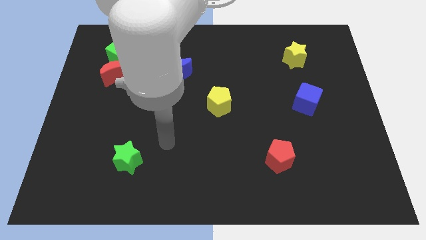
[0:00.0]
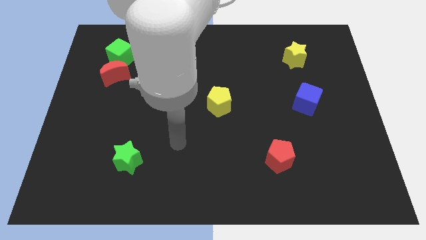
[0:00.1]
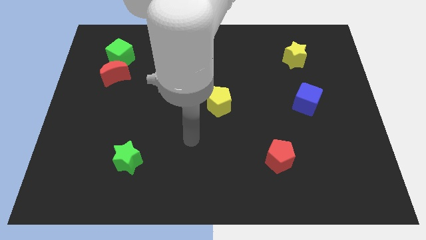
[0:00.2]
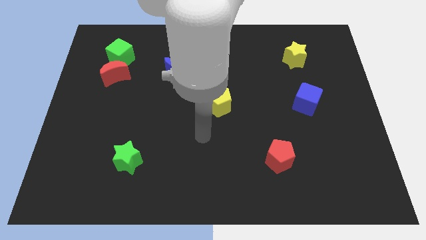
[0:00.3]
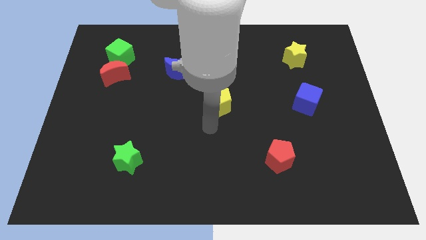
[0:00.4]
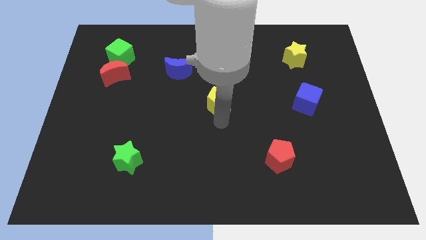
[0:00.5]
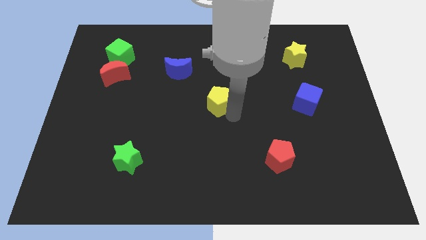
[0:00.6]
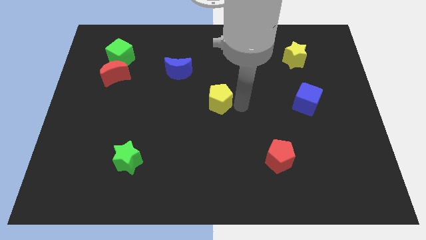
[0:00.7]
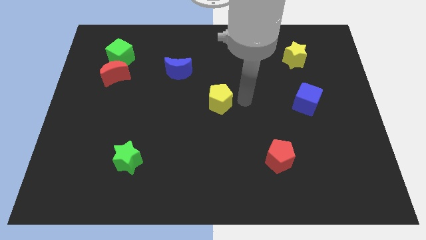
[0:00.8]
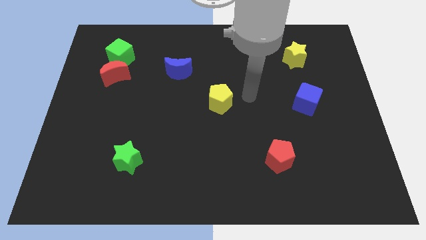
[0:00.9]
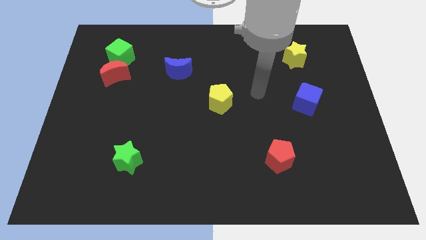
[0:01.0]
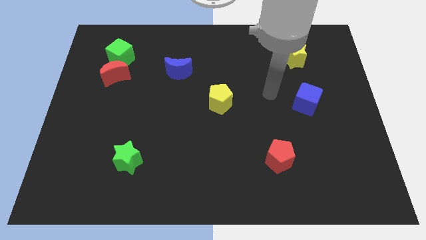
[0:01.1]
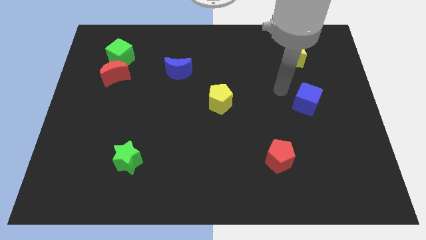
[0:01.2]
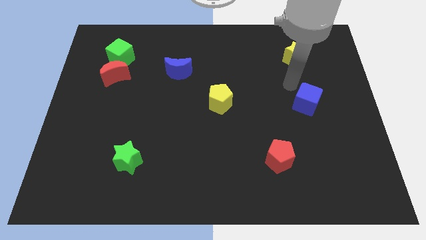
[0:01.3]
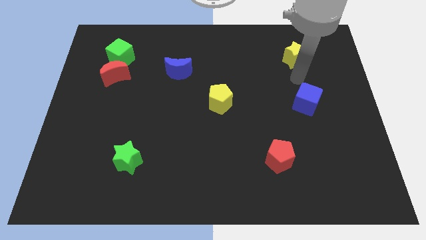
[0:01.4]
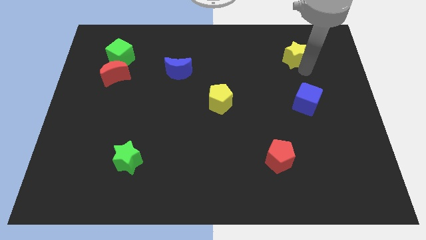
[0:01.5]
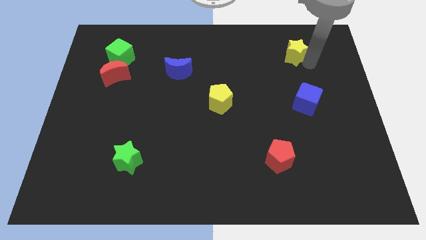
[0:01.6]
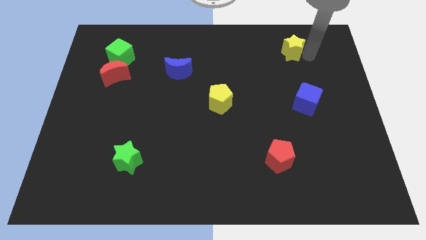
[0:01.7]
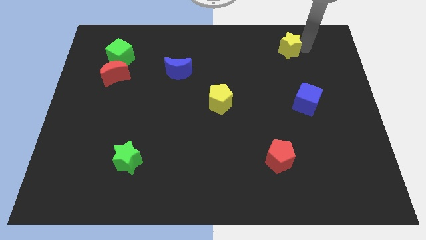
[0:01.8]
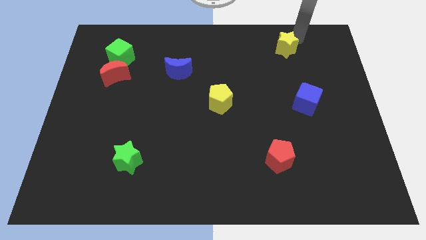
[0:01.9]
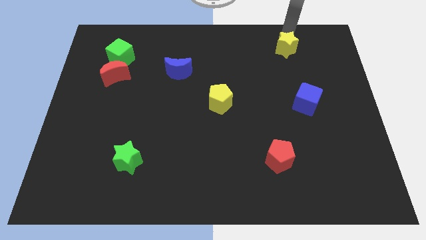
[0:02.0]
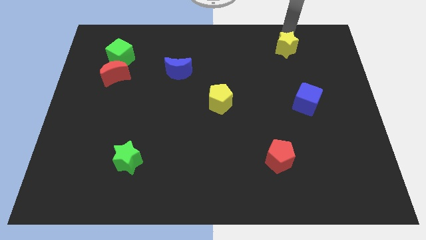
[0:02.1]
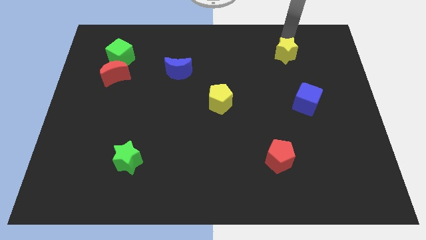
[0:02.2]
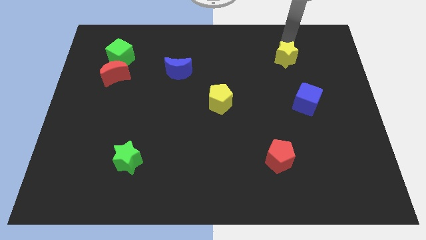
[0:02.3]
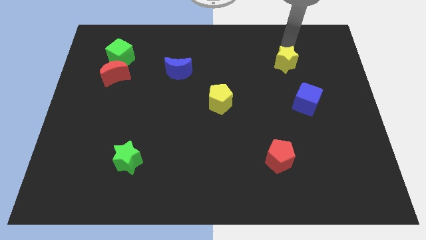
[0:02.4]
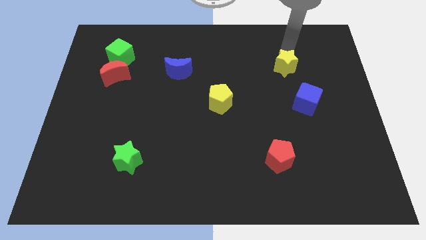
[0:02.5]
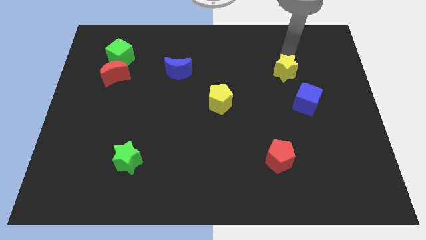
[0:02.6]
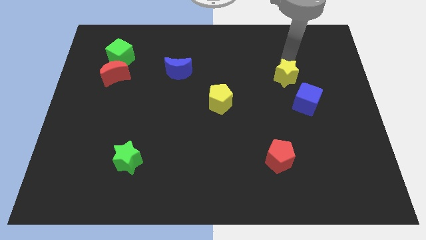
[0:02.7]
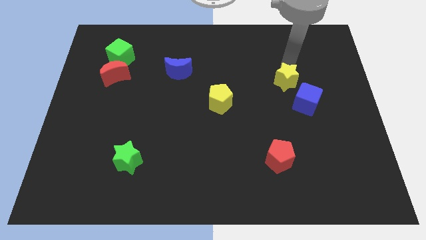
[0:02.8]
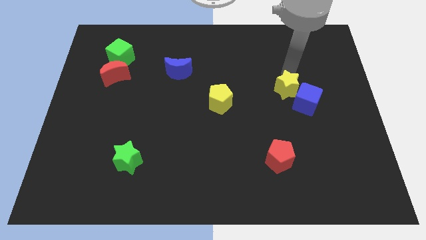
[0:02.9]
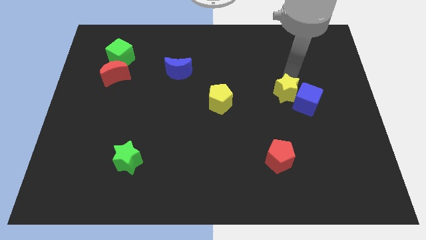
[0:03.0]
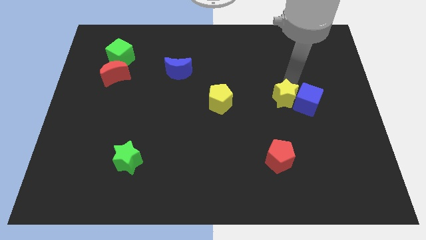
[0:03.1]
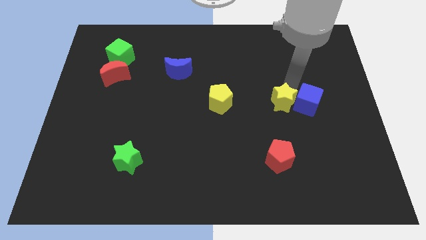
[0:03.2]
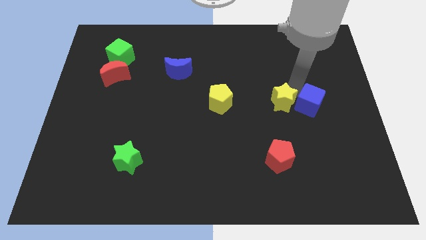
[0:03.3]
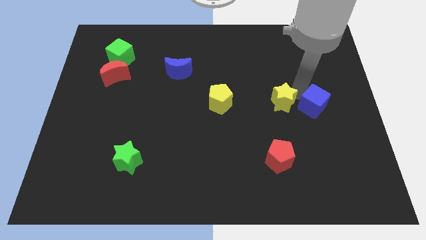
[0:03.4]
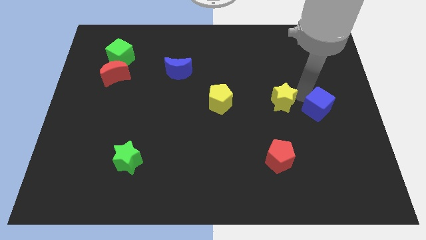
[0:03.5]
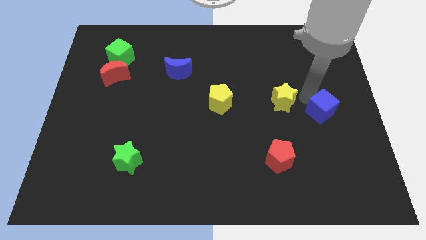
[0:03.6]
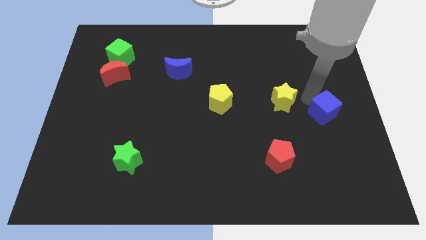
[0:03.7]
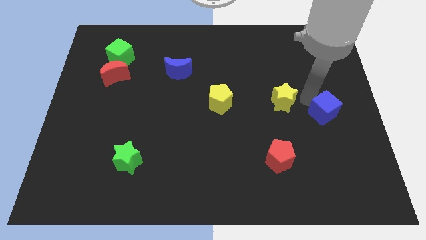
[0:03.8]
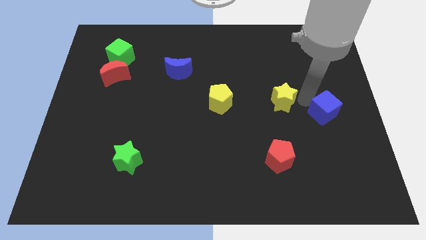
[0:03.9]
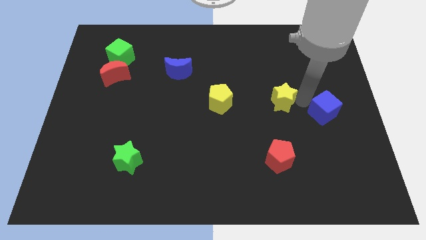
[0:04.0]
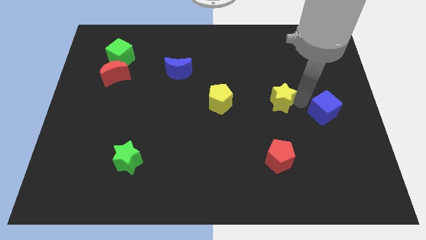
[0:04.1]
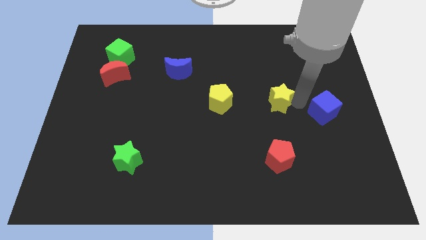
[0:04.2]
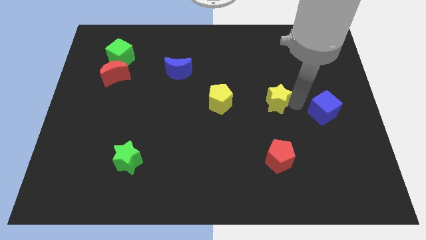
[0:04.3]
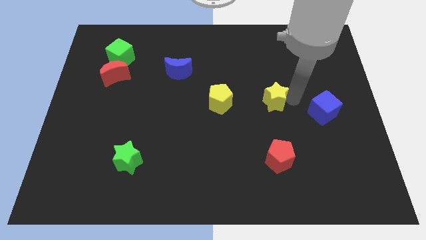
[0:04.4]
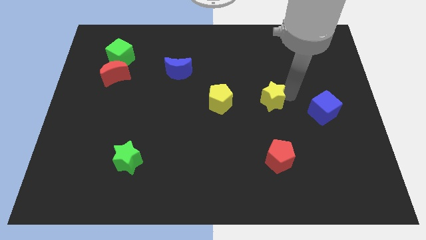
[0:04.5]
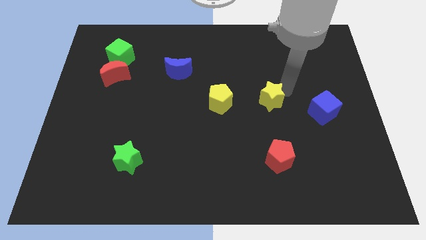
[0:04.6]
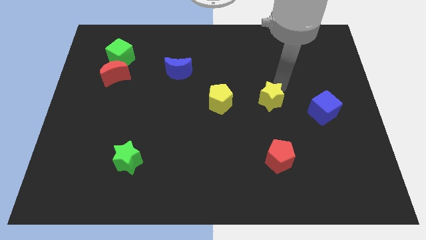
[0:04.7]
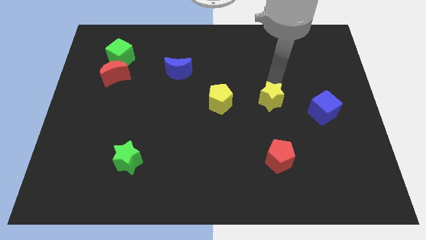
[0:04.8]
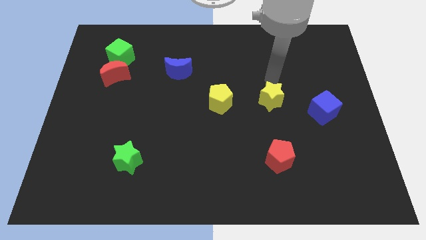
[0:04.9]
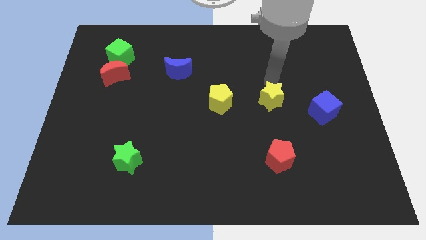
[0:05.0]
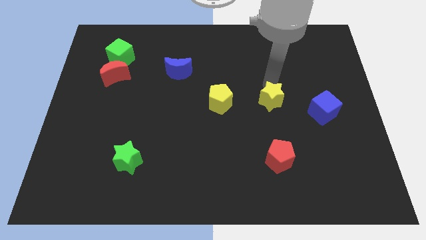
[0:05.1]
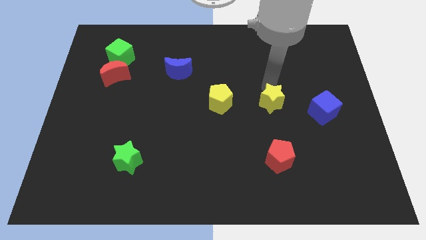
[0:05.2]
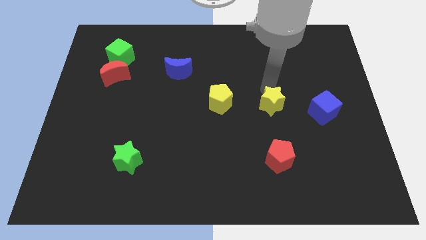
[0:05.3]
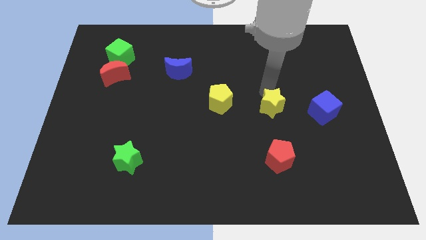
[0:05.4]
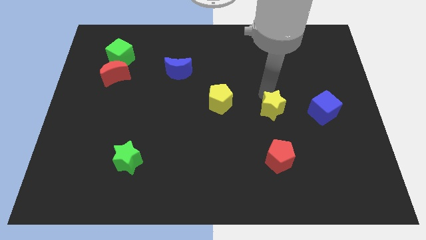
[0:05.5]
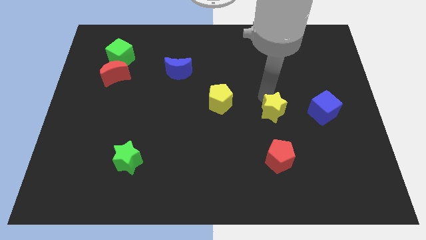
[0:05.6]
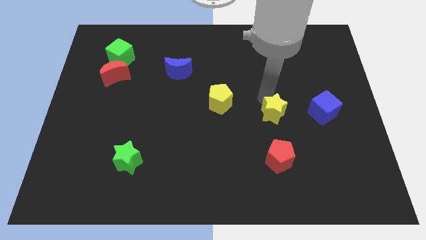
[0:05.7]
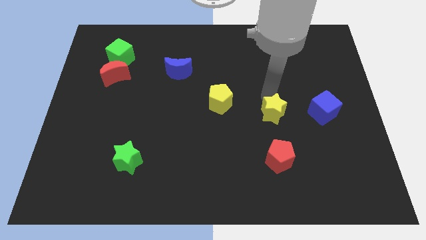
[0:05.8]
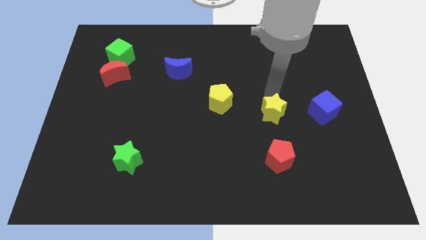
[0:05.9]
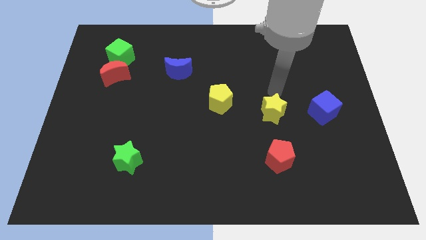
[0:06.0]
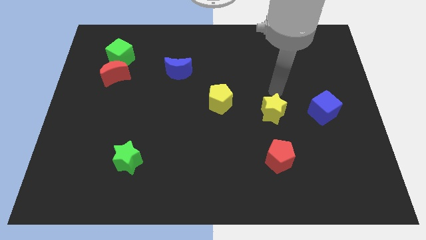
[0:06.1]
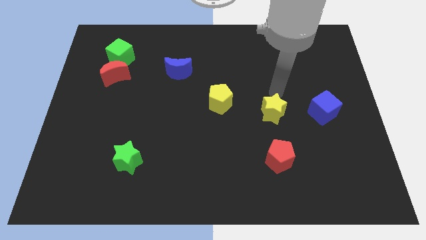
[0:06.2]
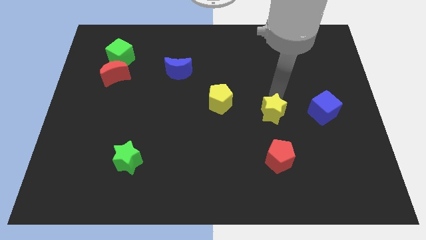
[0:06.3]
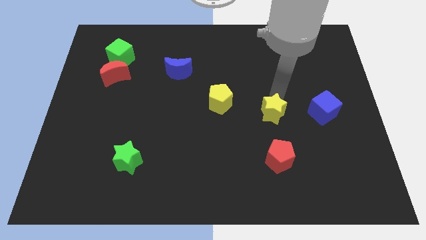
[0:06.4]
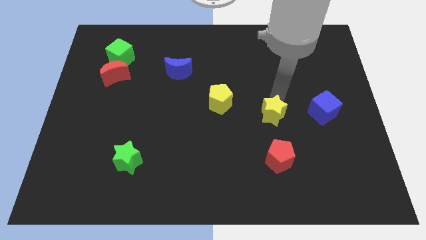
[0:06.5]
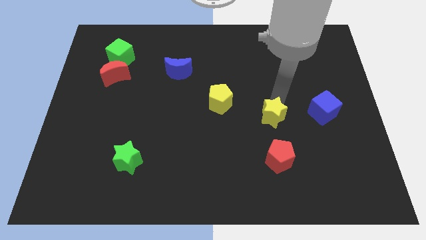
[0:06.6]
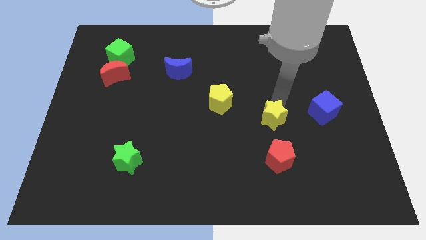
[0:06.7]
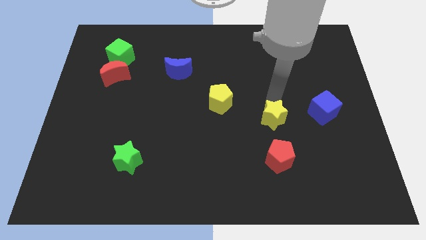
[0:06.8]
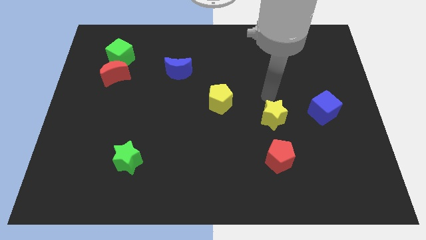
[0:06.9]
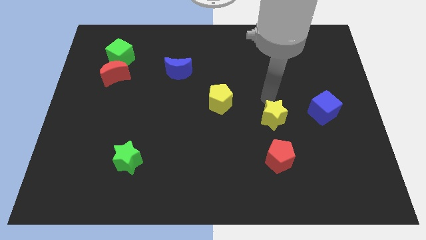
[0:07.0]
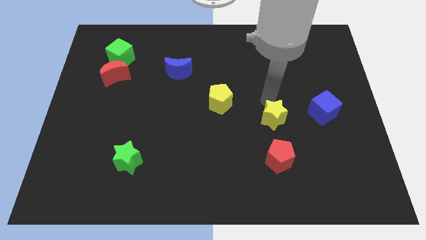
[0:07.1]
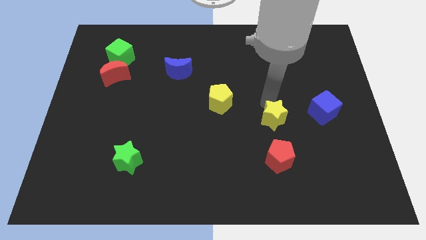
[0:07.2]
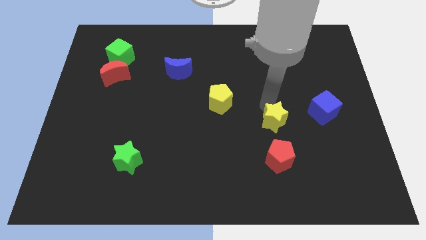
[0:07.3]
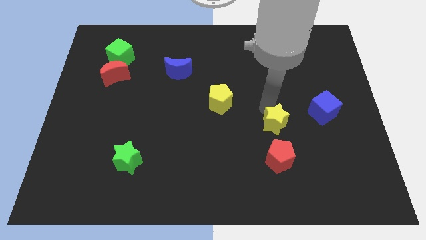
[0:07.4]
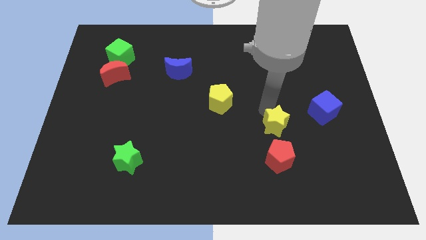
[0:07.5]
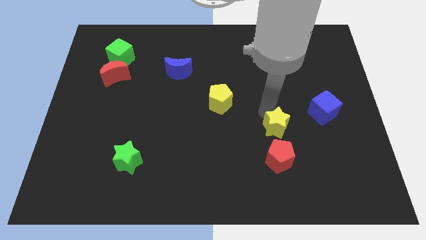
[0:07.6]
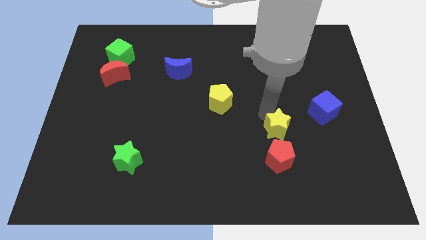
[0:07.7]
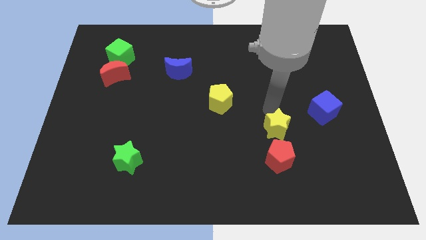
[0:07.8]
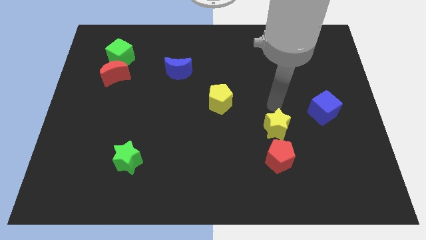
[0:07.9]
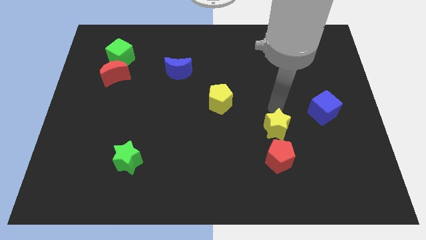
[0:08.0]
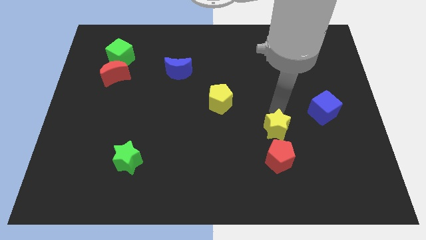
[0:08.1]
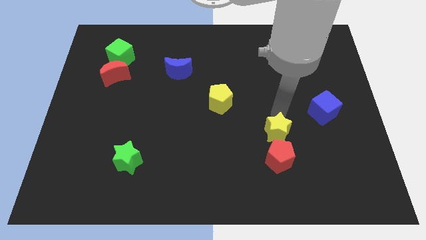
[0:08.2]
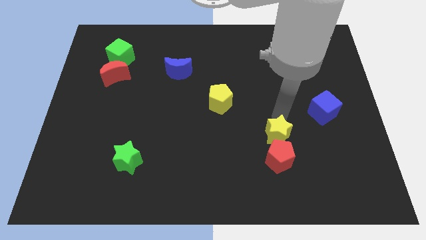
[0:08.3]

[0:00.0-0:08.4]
put the yellow star next to the red pentagon
